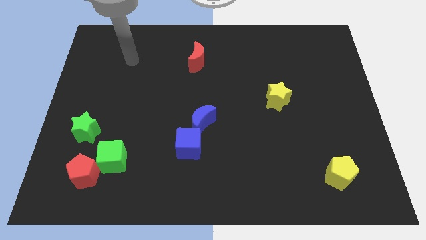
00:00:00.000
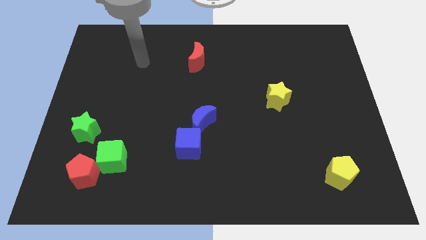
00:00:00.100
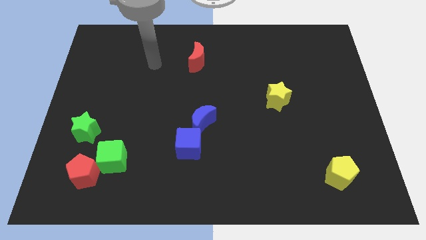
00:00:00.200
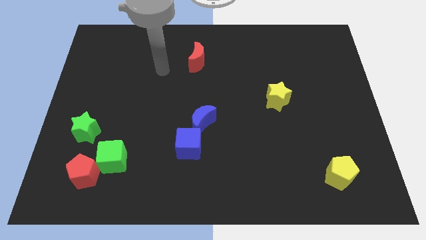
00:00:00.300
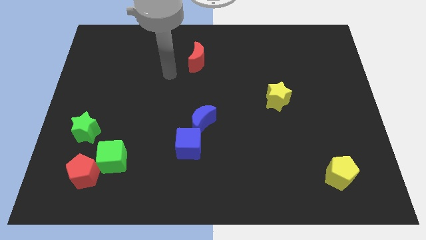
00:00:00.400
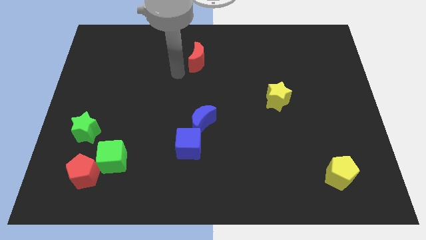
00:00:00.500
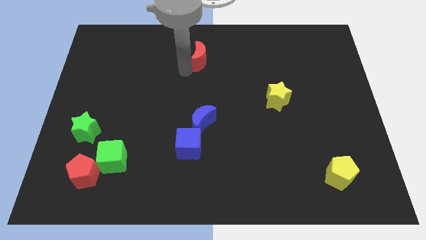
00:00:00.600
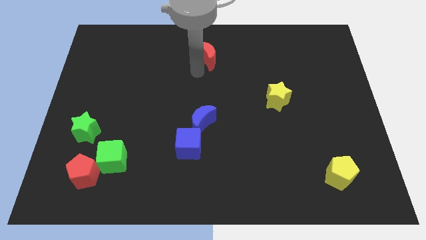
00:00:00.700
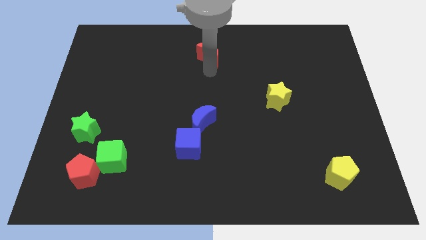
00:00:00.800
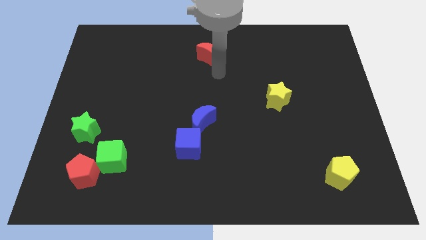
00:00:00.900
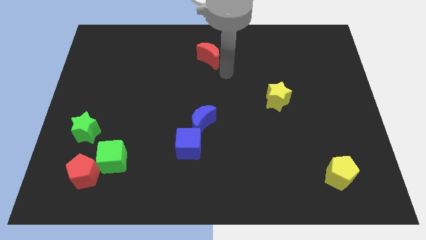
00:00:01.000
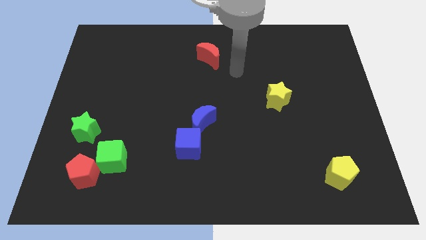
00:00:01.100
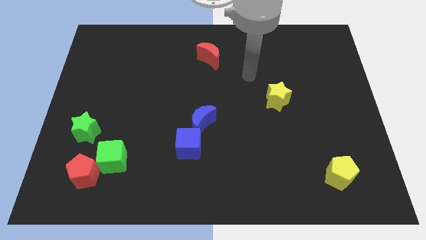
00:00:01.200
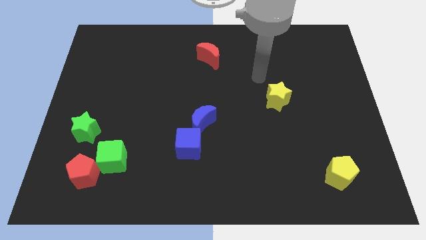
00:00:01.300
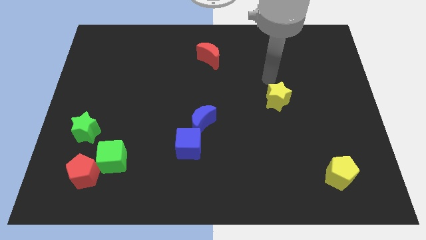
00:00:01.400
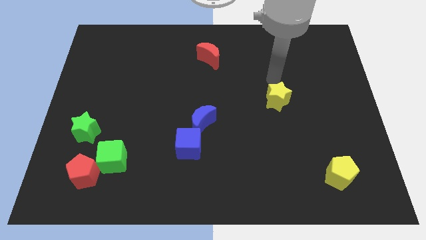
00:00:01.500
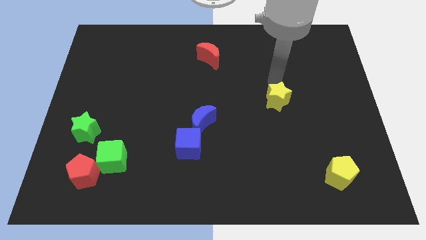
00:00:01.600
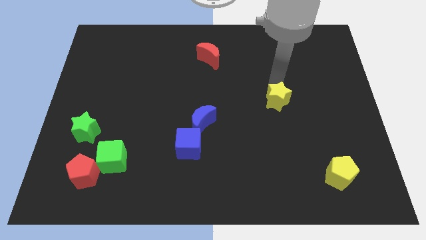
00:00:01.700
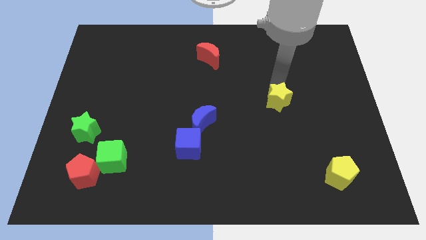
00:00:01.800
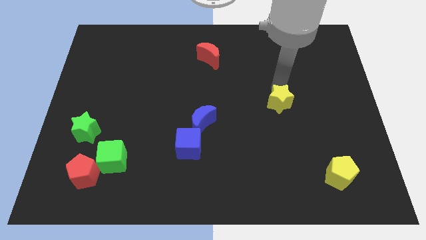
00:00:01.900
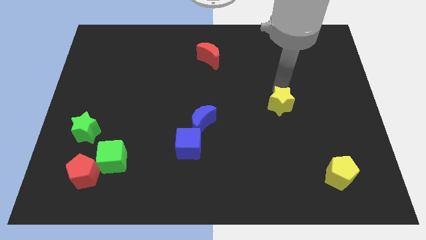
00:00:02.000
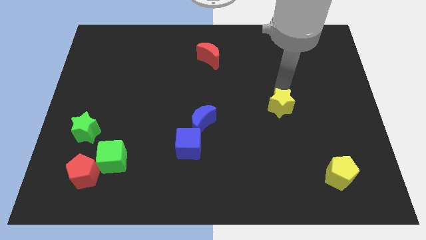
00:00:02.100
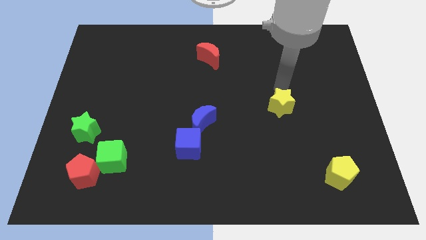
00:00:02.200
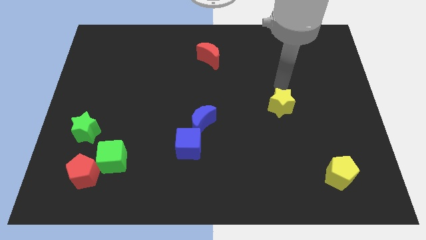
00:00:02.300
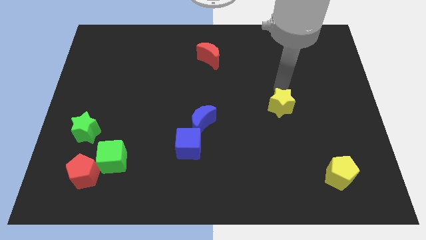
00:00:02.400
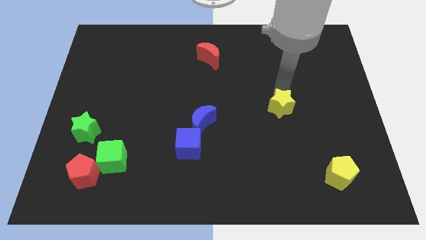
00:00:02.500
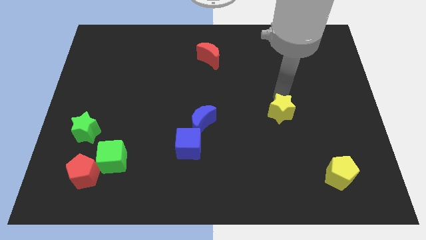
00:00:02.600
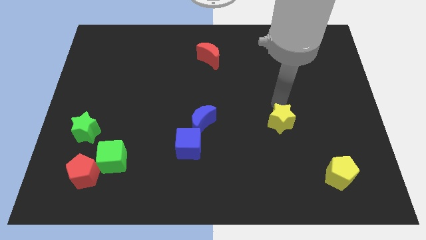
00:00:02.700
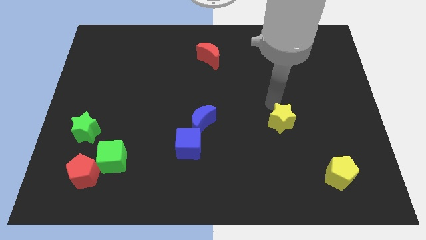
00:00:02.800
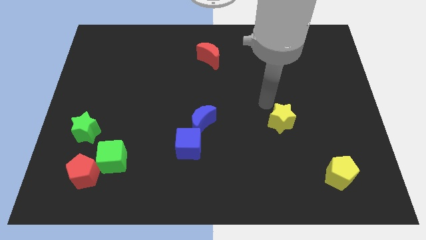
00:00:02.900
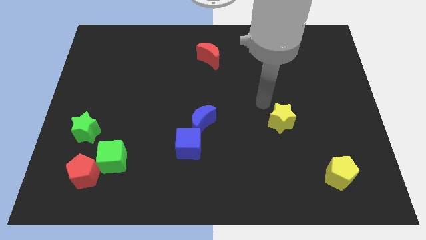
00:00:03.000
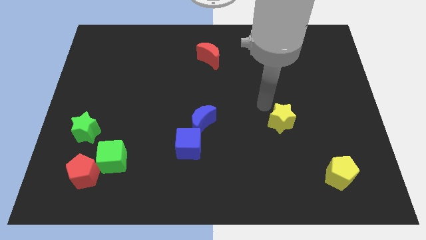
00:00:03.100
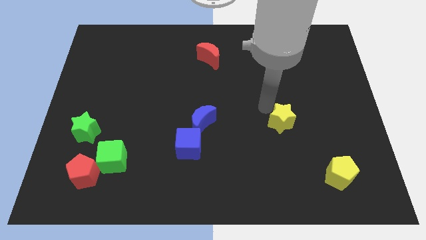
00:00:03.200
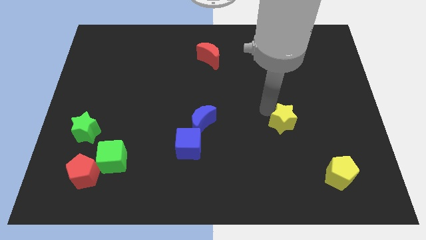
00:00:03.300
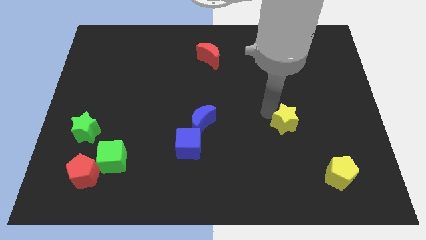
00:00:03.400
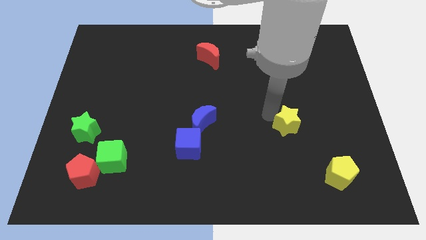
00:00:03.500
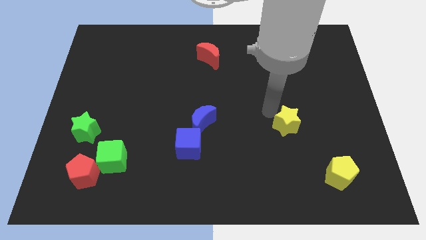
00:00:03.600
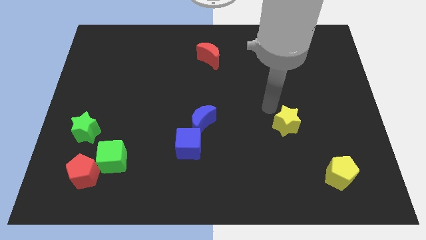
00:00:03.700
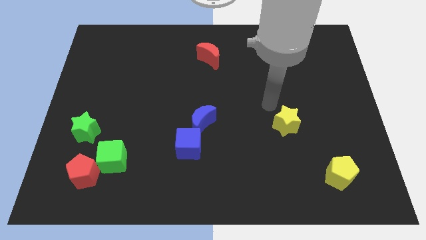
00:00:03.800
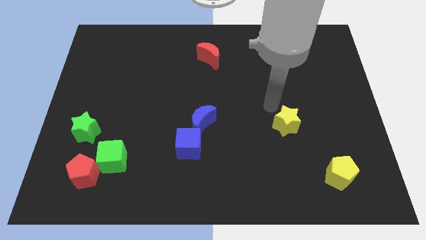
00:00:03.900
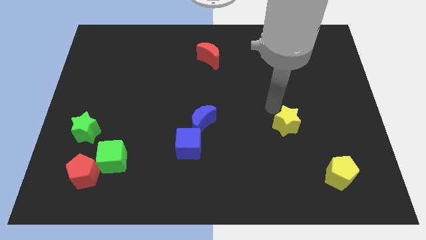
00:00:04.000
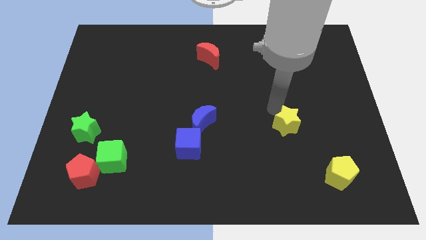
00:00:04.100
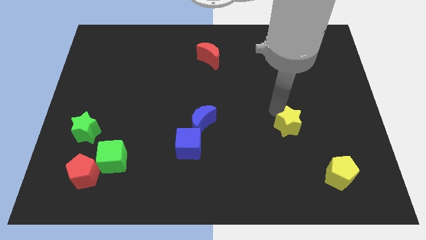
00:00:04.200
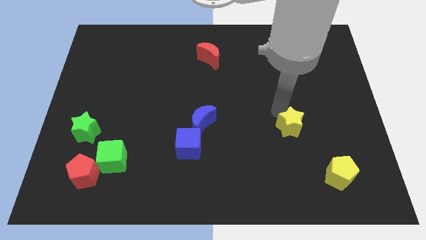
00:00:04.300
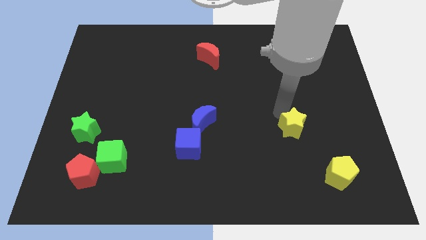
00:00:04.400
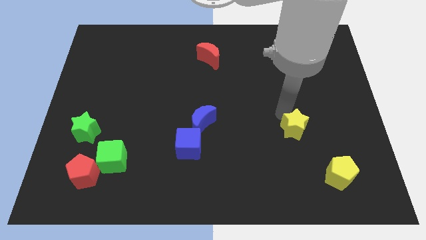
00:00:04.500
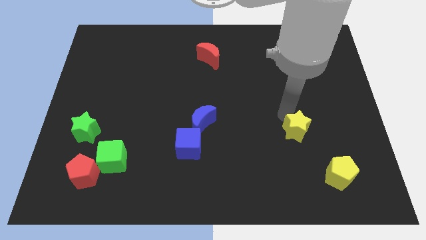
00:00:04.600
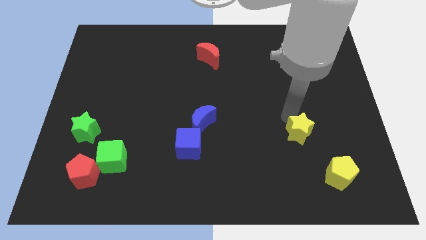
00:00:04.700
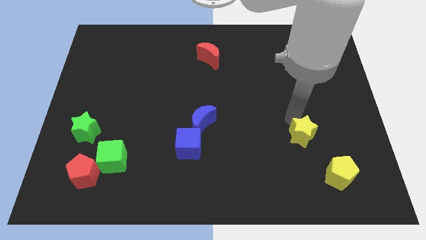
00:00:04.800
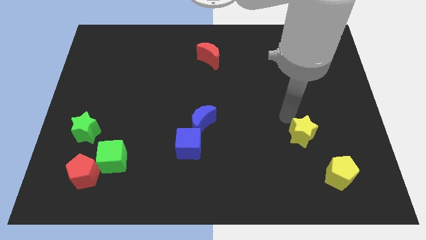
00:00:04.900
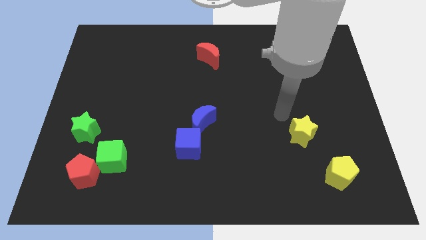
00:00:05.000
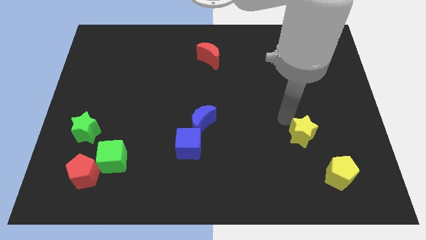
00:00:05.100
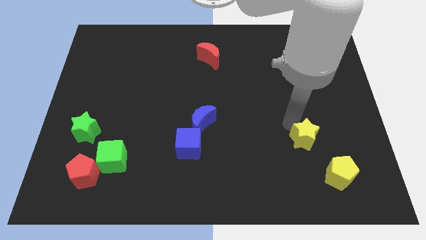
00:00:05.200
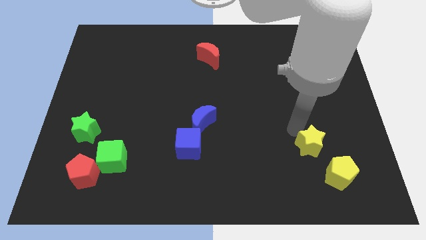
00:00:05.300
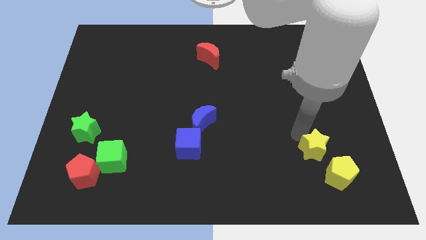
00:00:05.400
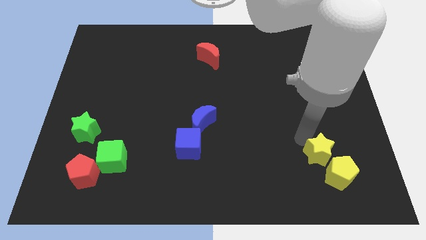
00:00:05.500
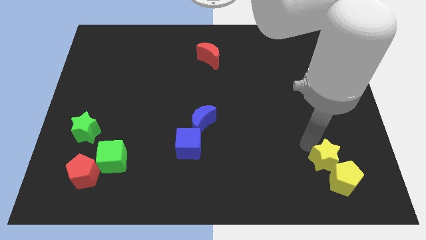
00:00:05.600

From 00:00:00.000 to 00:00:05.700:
move the yellow star towards the yellow pentagon

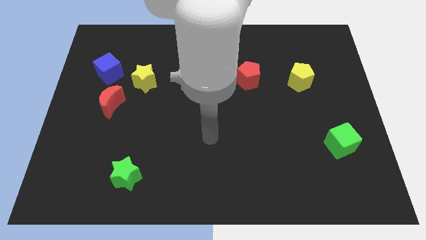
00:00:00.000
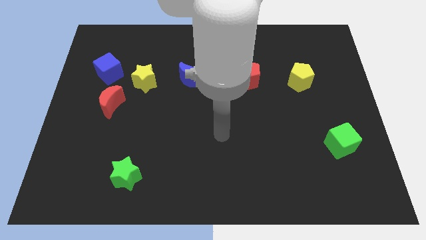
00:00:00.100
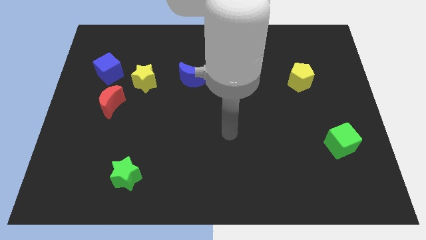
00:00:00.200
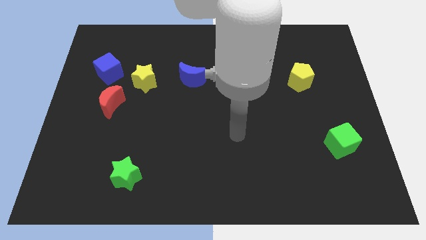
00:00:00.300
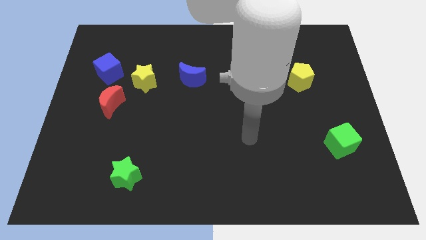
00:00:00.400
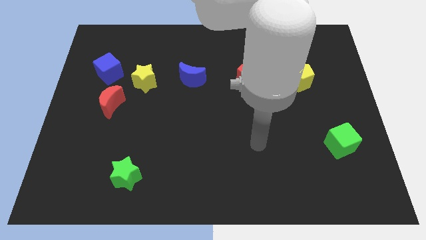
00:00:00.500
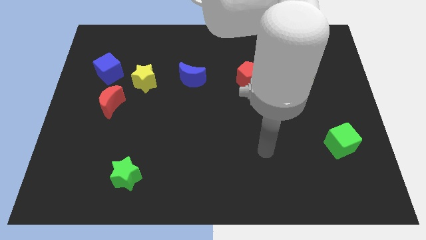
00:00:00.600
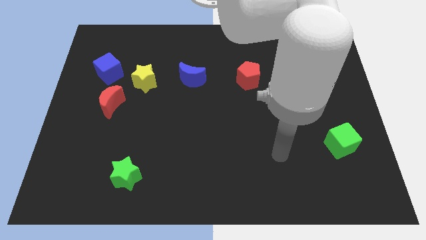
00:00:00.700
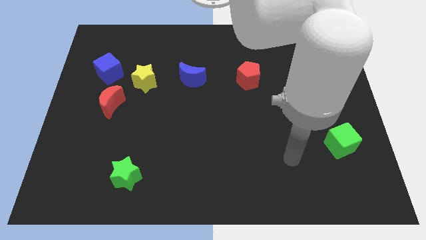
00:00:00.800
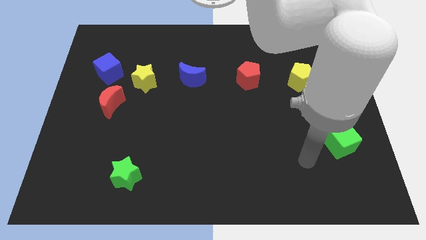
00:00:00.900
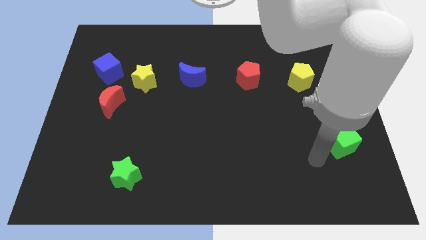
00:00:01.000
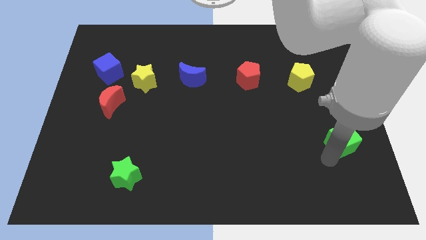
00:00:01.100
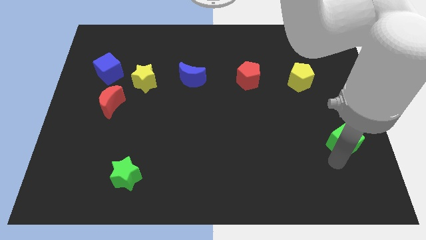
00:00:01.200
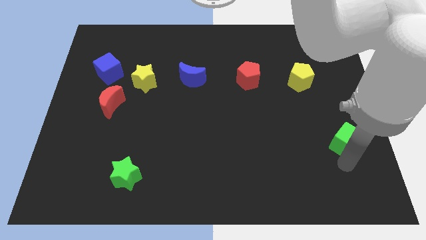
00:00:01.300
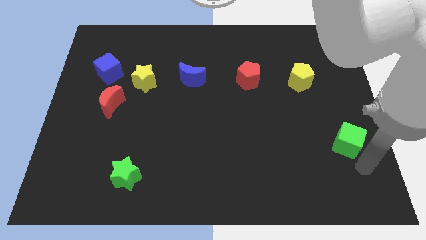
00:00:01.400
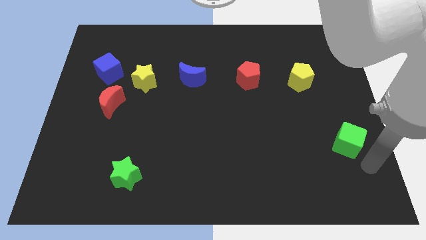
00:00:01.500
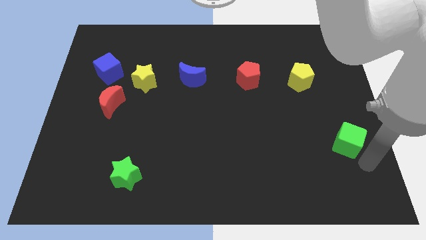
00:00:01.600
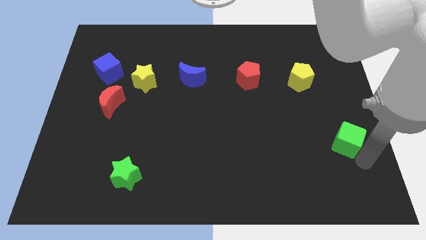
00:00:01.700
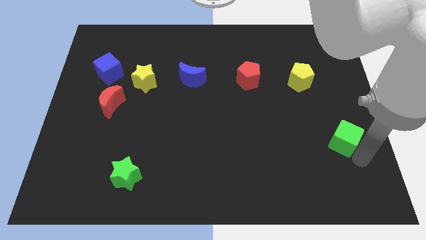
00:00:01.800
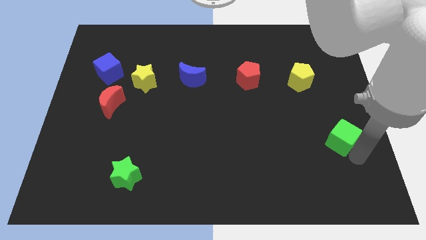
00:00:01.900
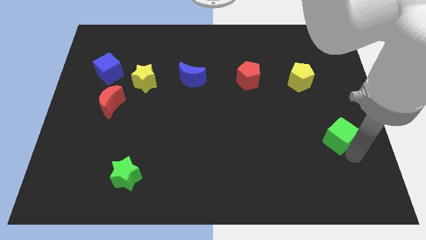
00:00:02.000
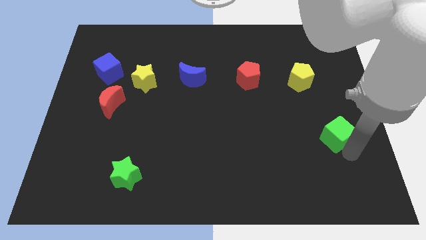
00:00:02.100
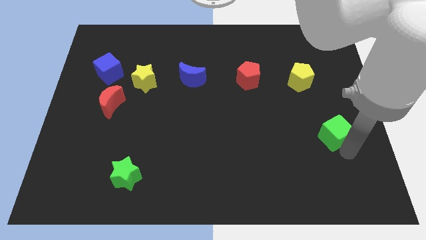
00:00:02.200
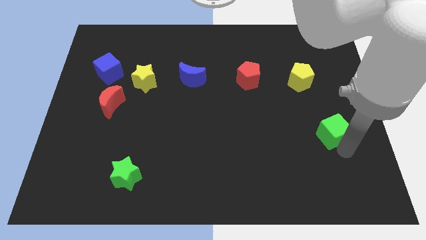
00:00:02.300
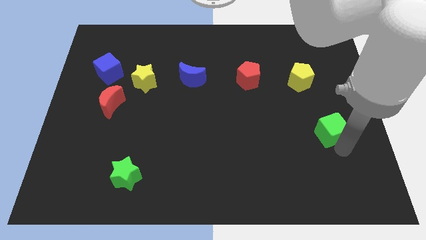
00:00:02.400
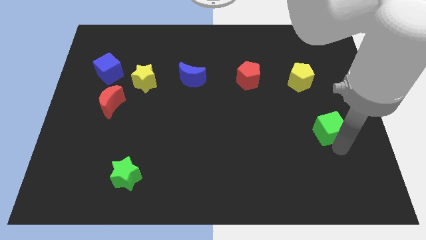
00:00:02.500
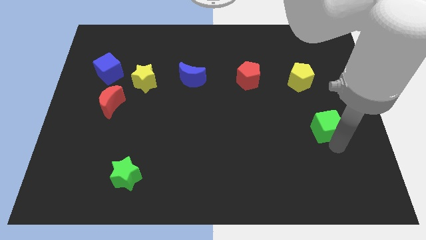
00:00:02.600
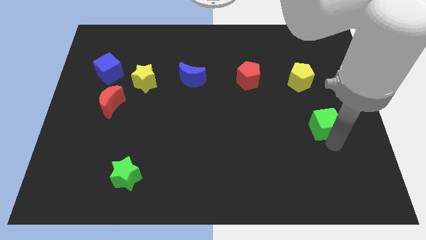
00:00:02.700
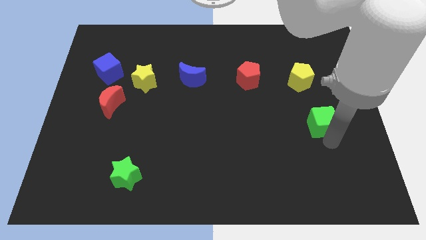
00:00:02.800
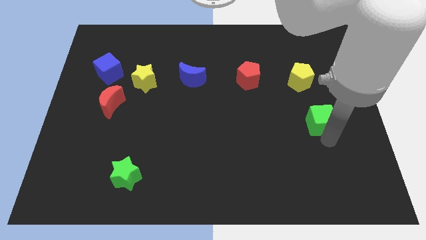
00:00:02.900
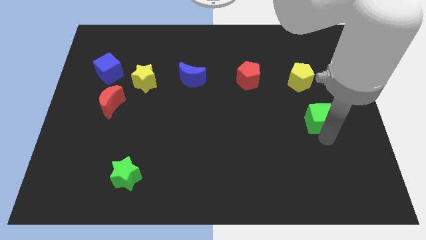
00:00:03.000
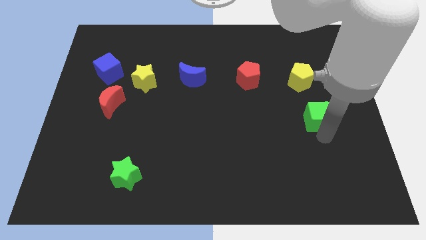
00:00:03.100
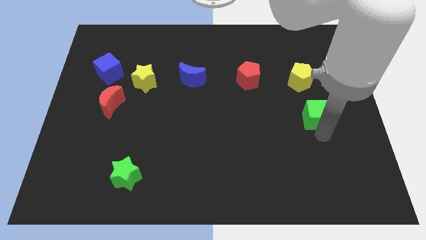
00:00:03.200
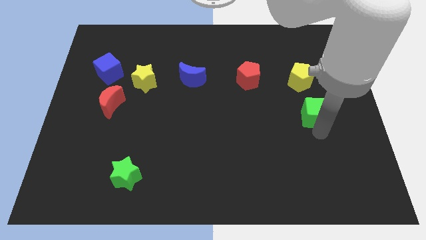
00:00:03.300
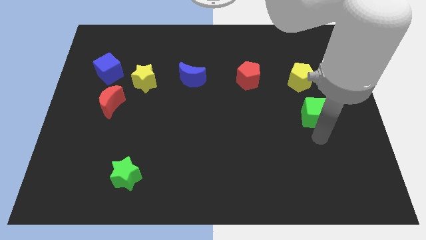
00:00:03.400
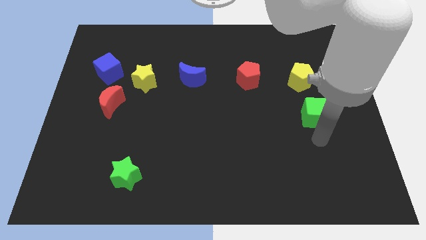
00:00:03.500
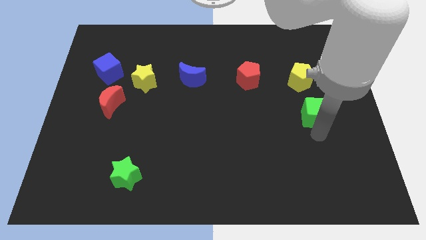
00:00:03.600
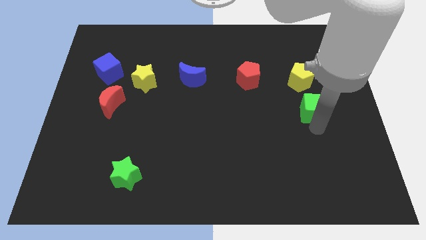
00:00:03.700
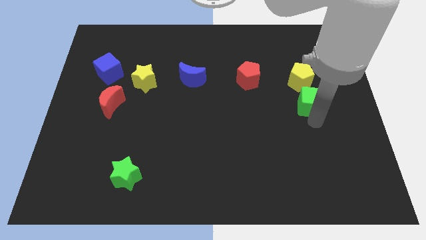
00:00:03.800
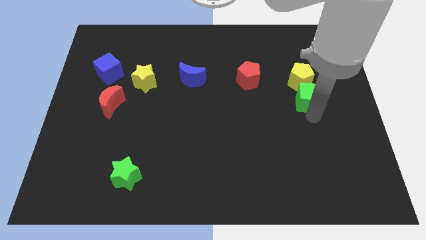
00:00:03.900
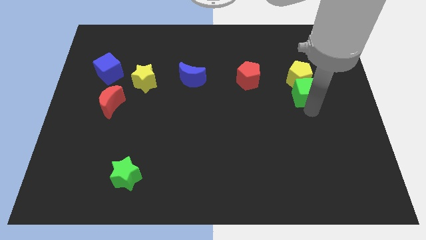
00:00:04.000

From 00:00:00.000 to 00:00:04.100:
slide the green cube close to the yellow pentagon
